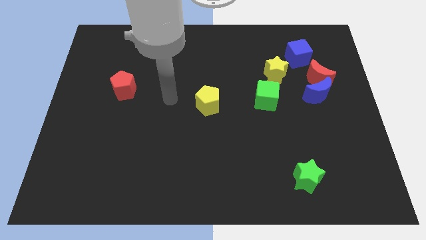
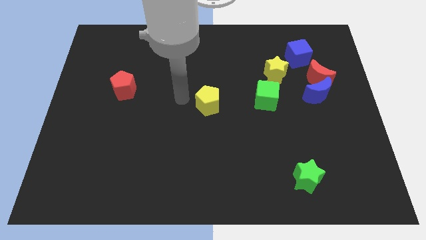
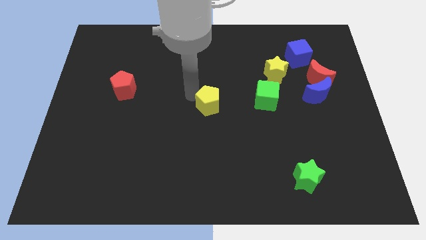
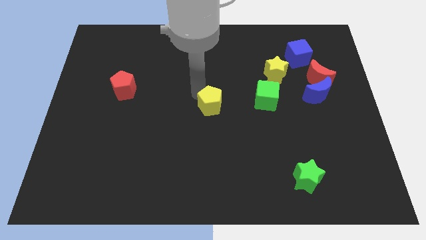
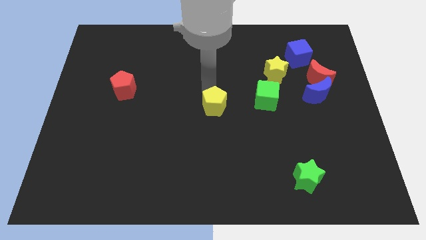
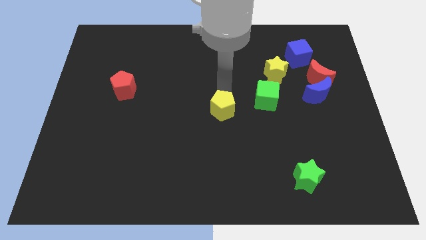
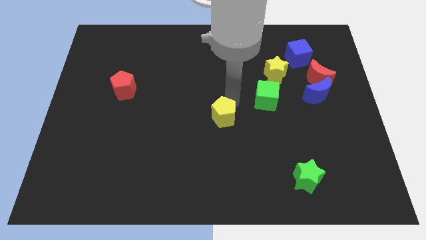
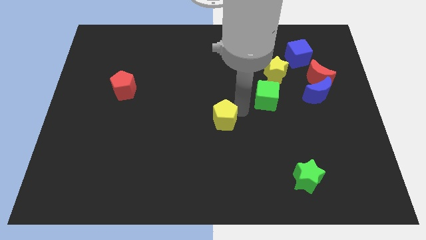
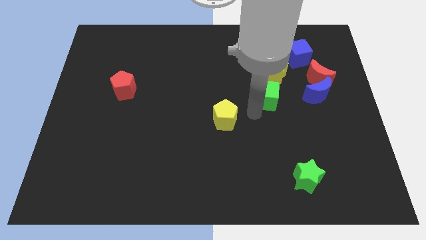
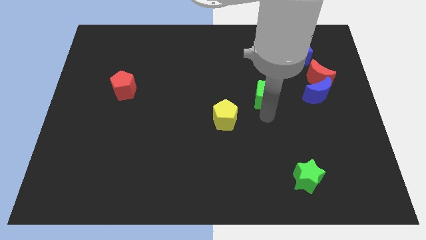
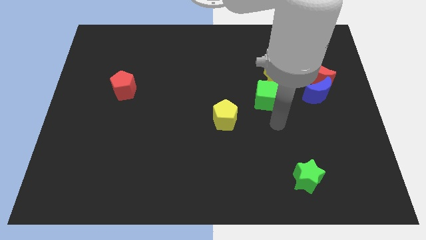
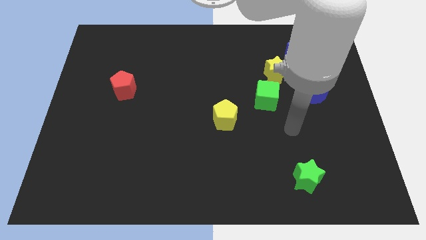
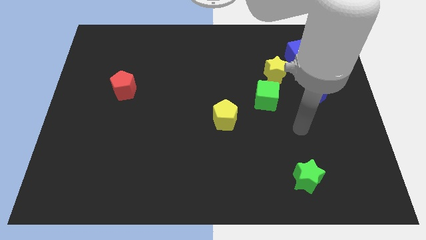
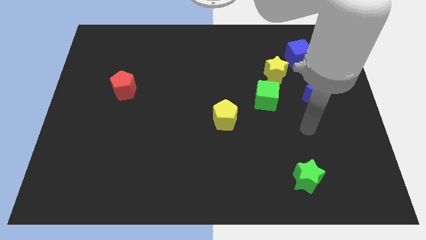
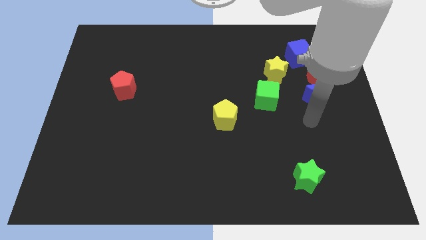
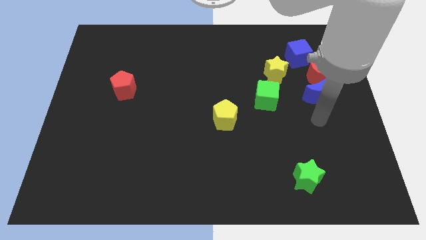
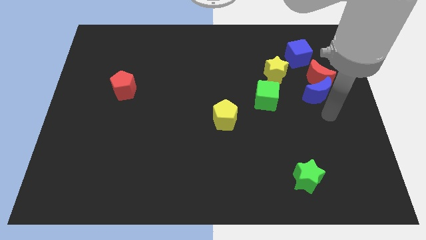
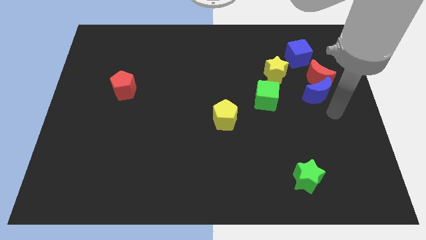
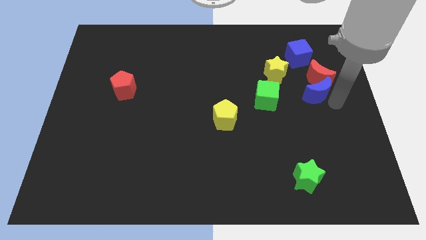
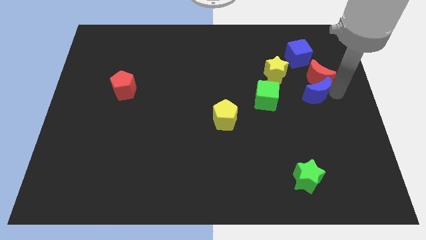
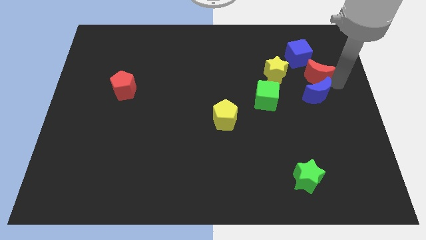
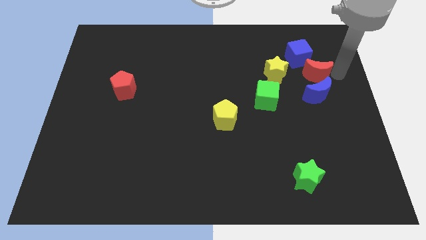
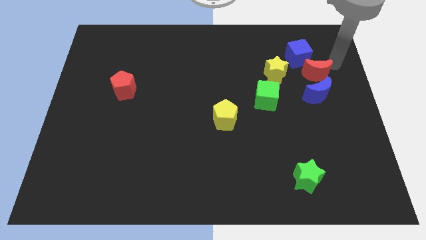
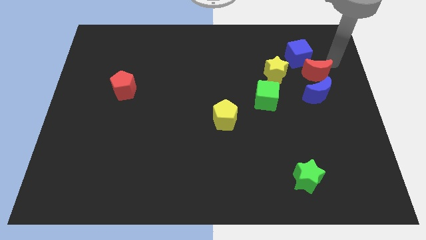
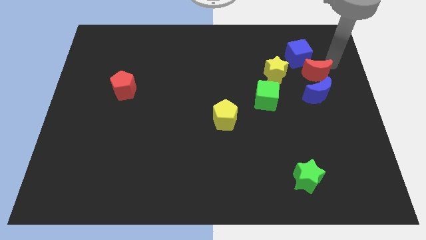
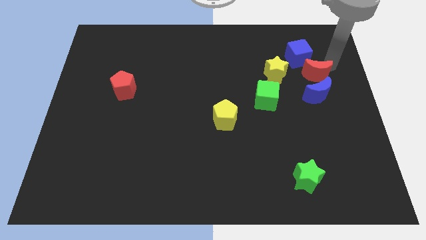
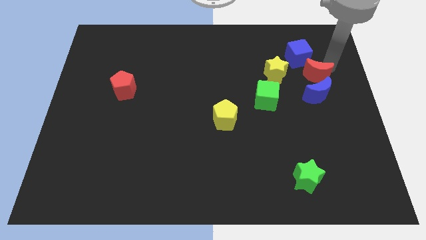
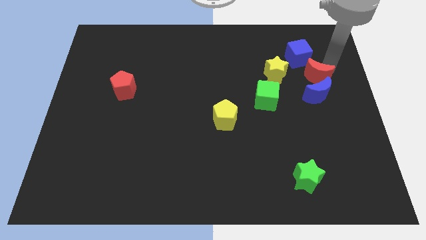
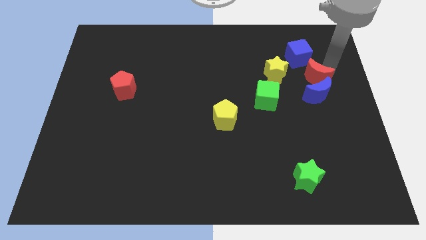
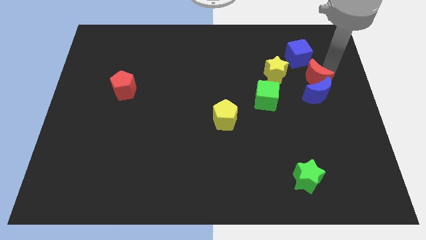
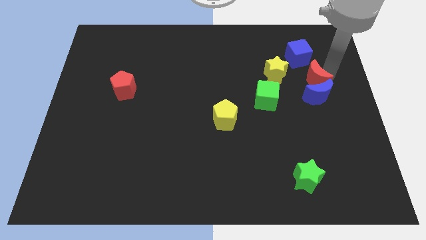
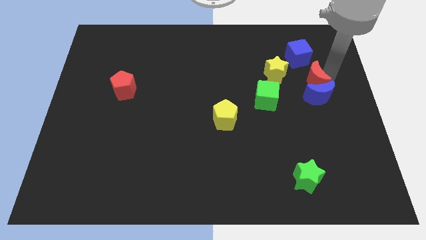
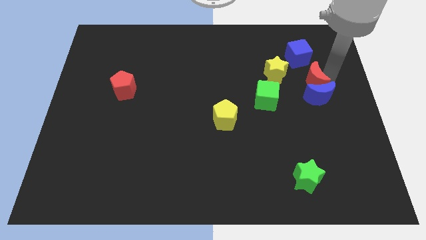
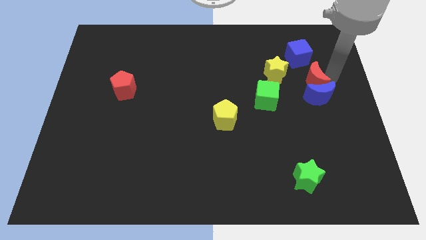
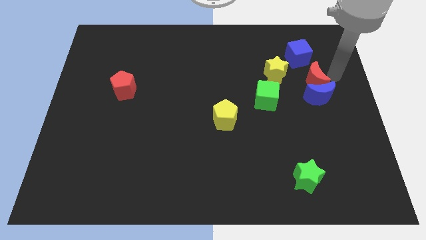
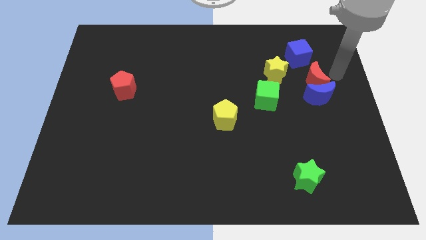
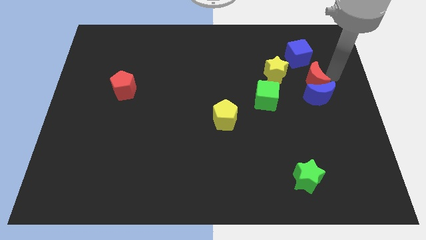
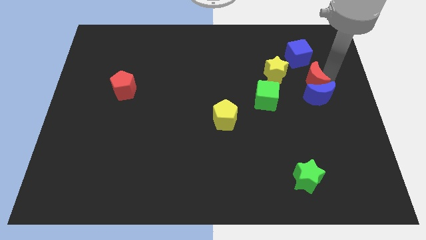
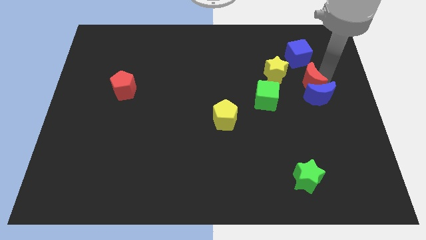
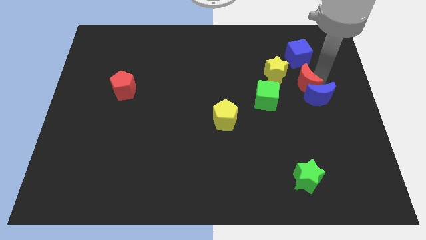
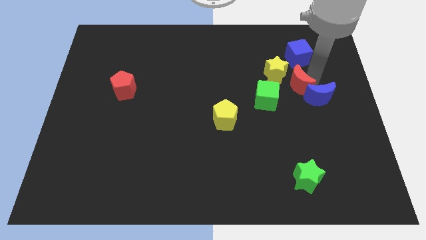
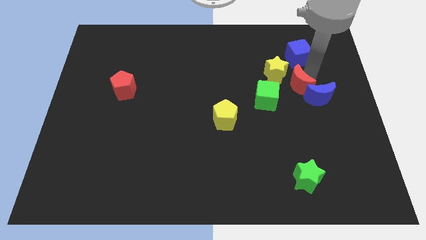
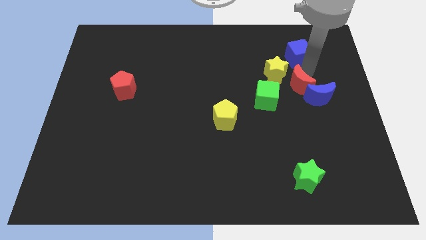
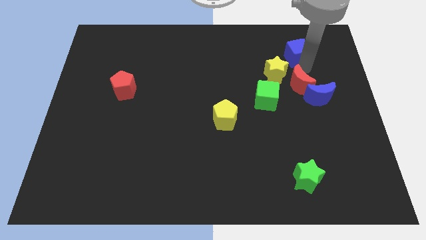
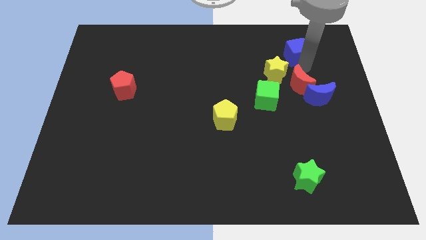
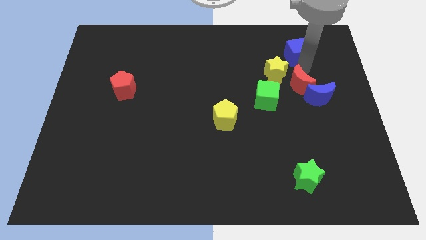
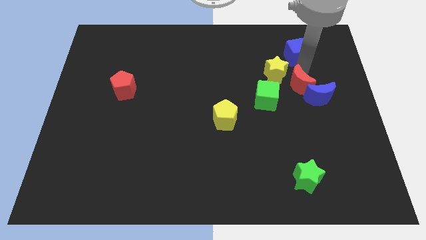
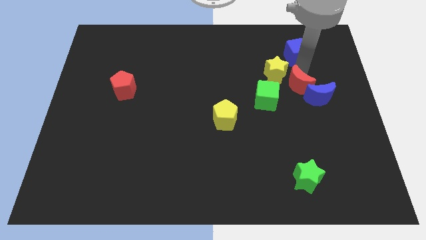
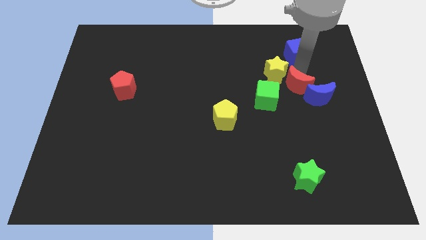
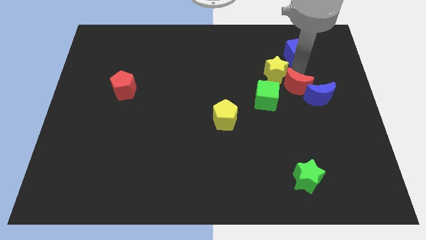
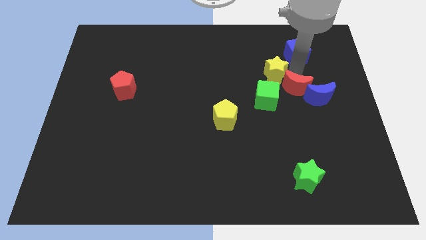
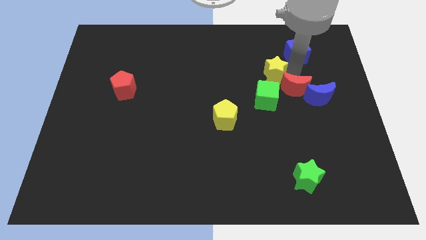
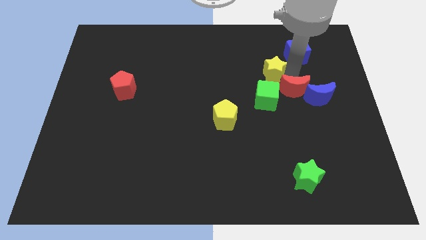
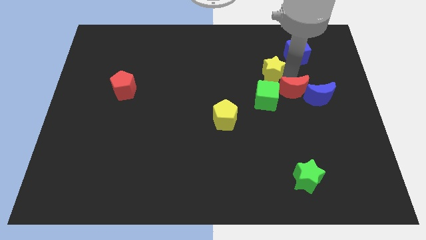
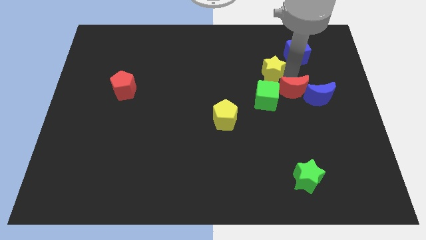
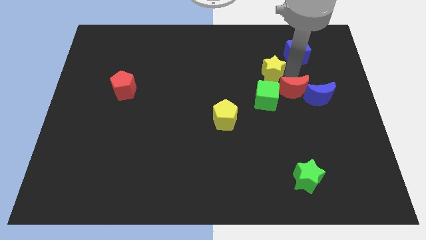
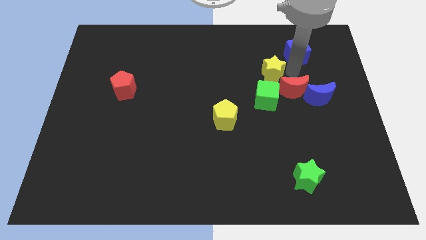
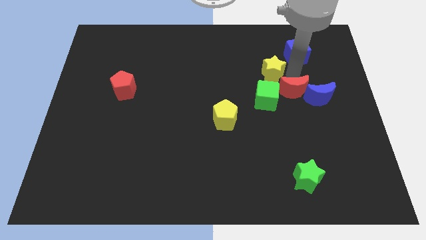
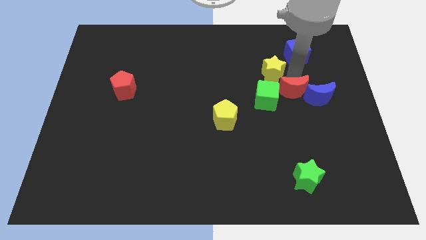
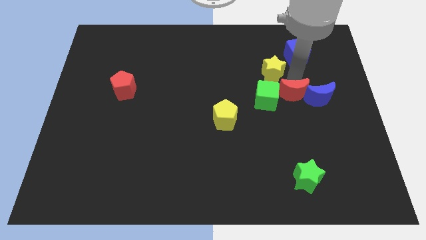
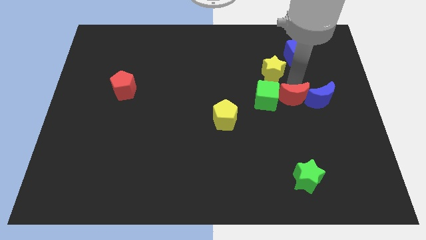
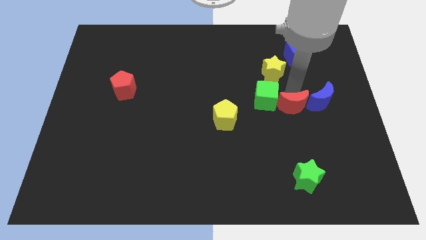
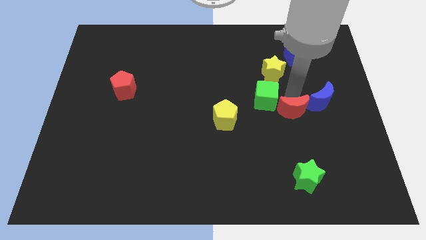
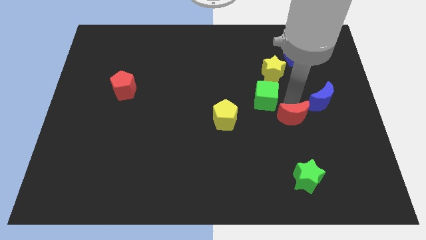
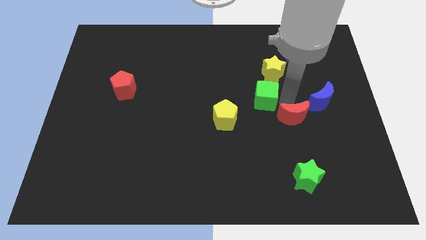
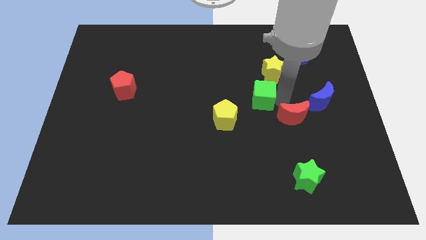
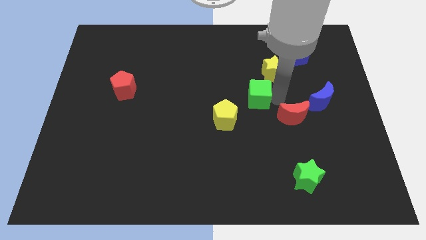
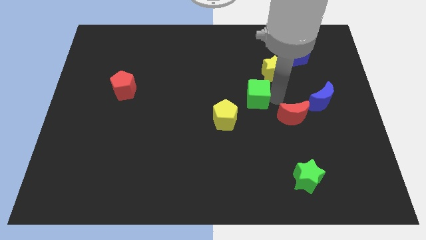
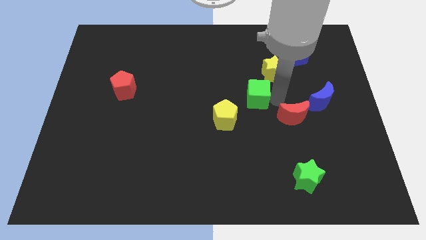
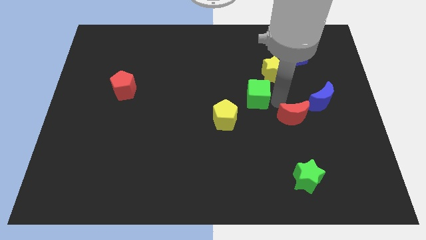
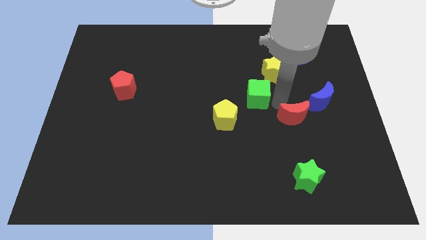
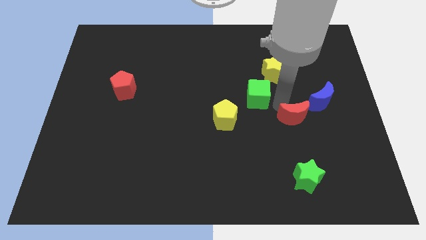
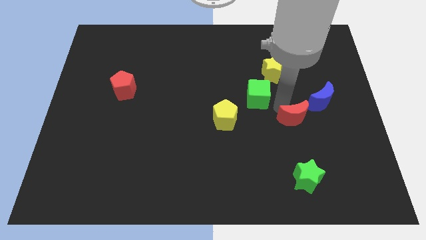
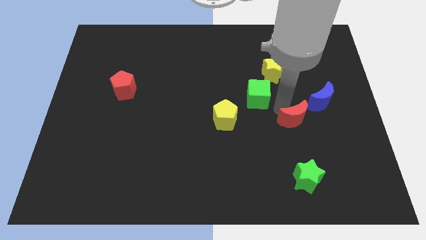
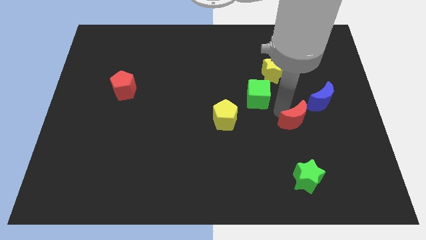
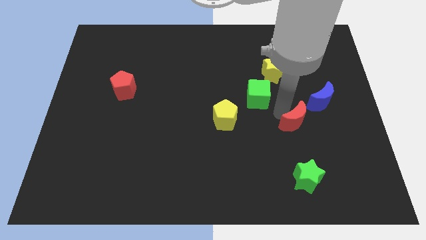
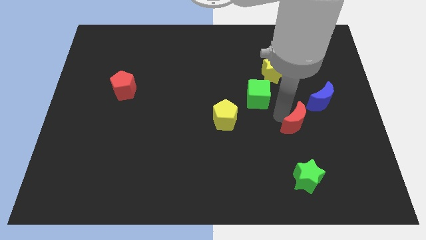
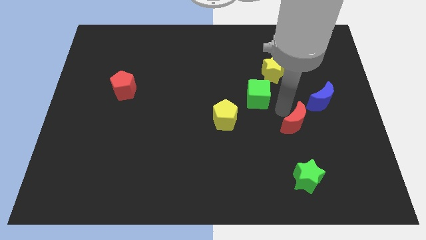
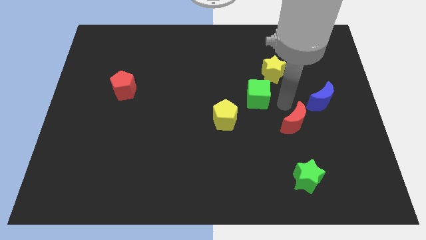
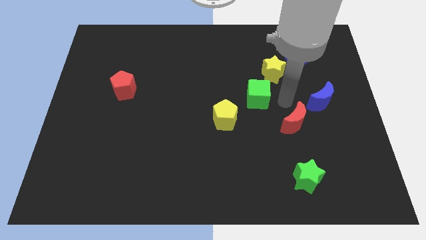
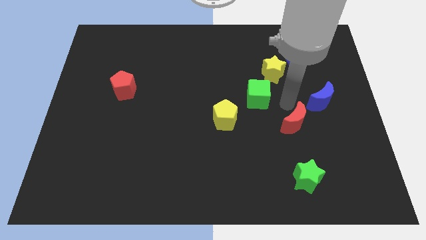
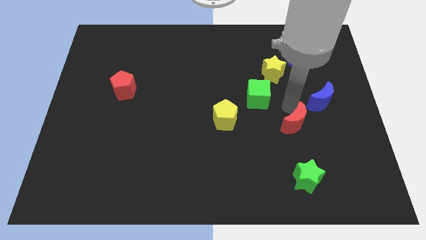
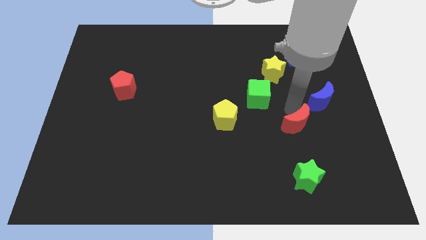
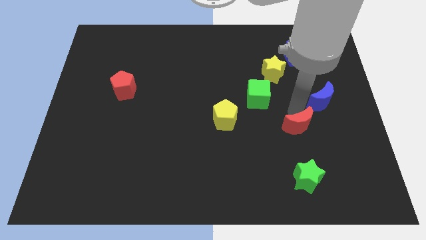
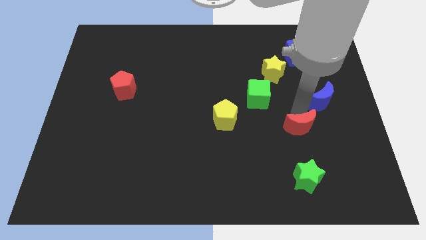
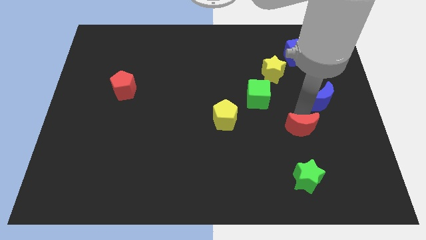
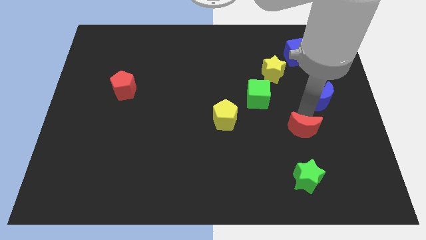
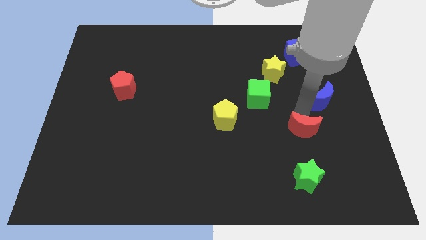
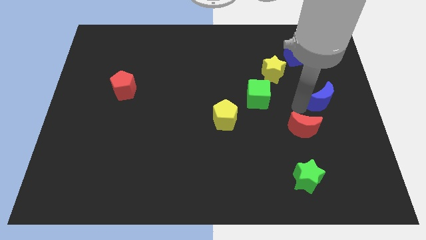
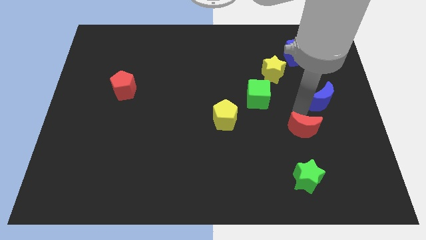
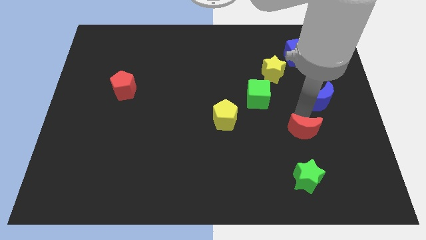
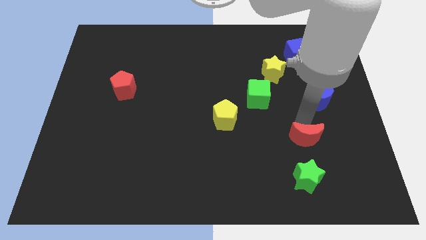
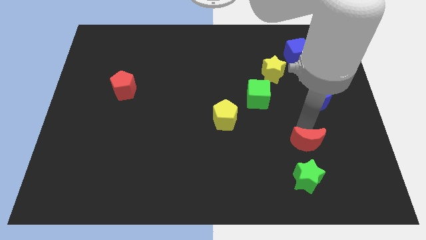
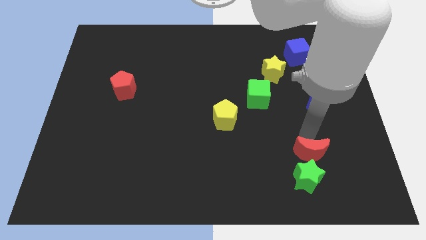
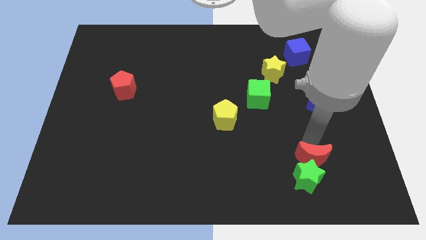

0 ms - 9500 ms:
slide the red moon towards the green star
